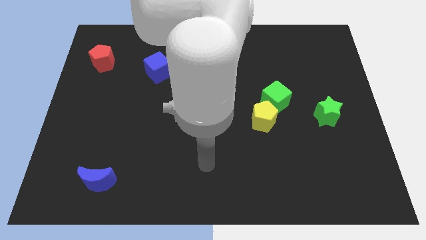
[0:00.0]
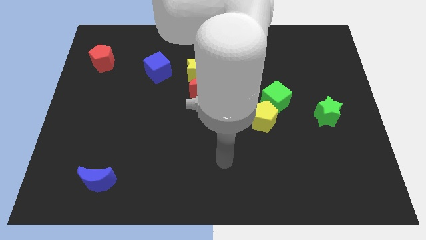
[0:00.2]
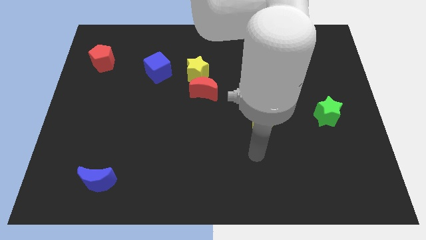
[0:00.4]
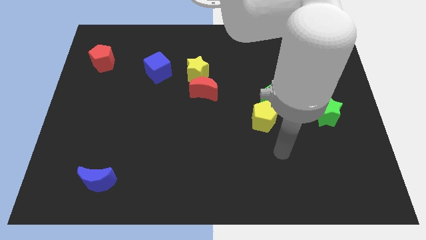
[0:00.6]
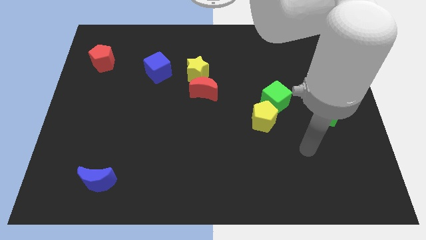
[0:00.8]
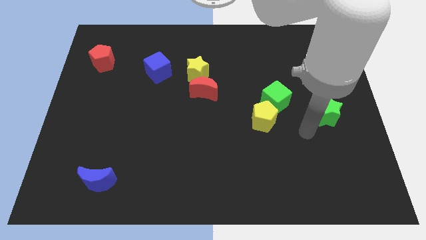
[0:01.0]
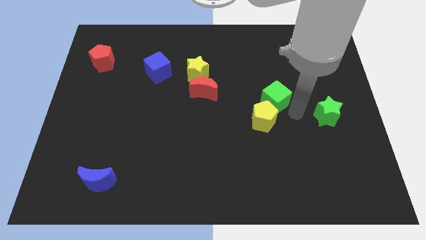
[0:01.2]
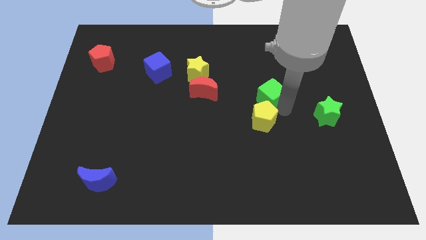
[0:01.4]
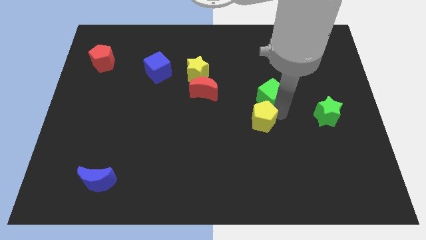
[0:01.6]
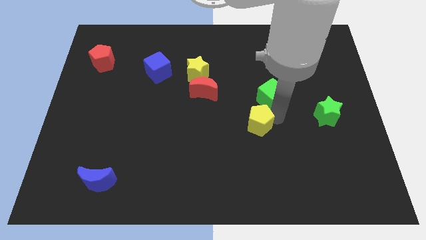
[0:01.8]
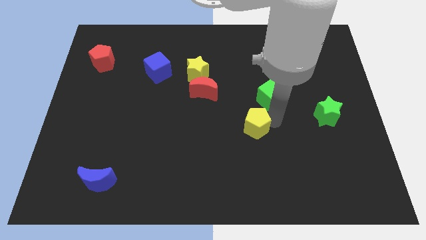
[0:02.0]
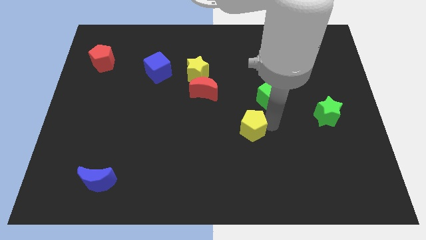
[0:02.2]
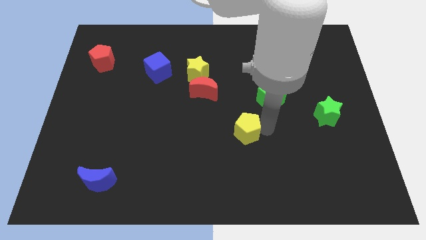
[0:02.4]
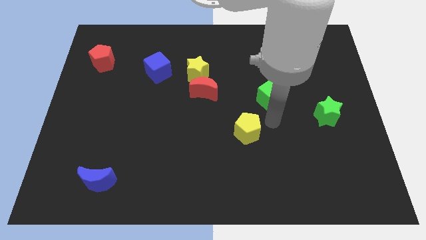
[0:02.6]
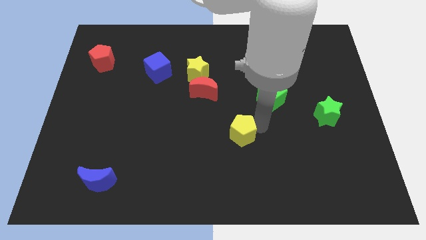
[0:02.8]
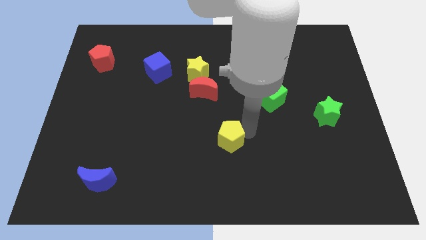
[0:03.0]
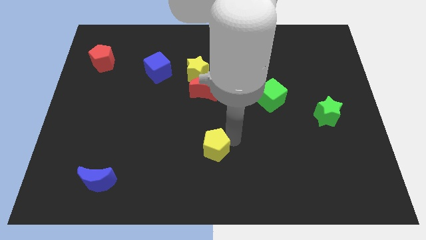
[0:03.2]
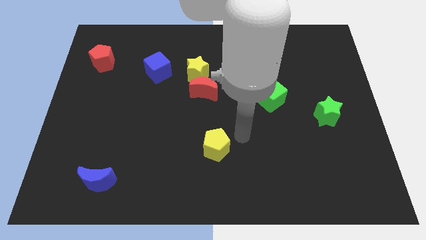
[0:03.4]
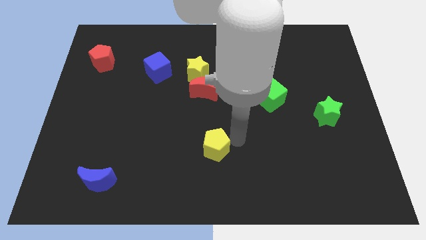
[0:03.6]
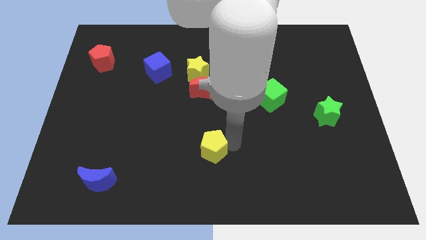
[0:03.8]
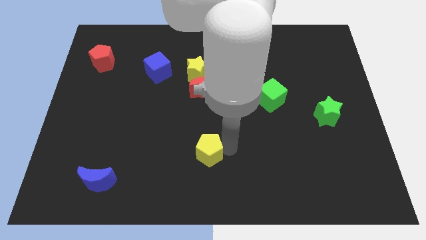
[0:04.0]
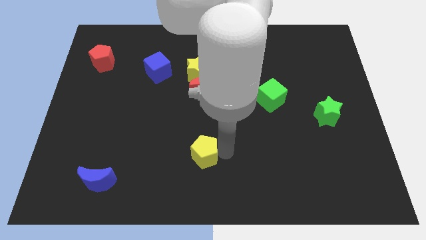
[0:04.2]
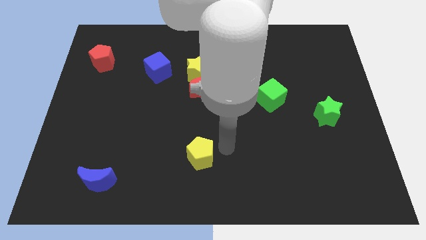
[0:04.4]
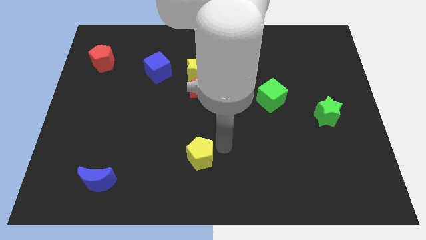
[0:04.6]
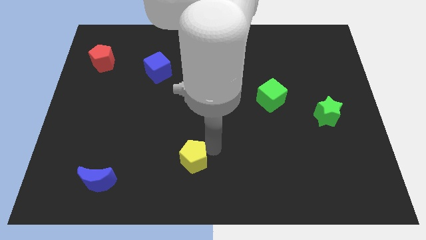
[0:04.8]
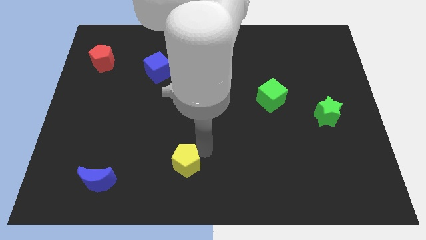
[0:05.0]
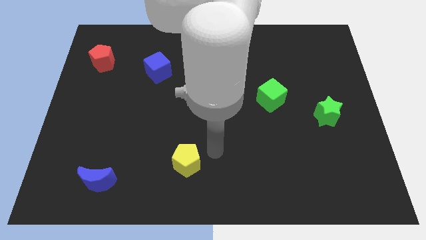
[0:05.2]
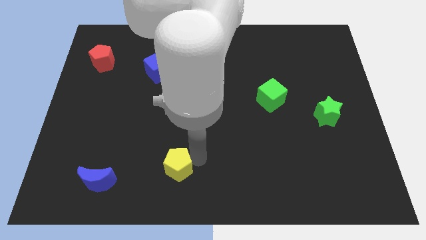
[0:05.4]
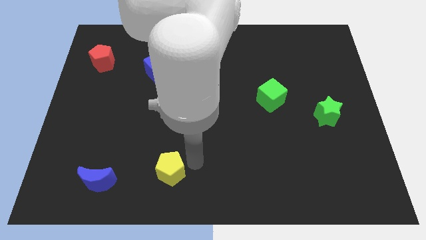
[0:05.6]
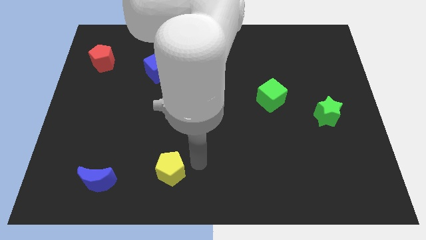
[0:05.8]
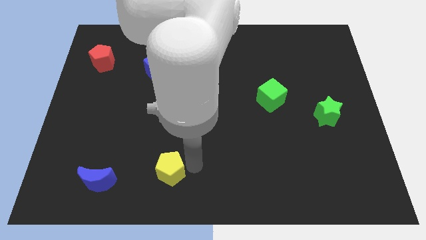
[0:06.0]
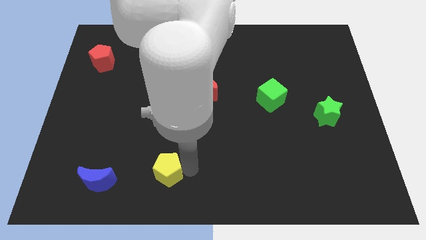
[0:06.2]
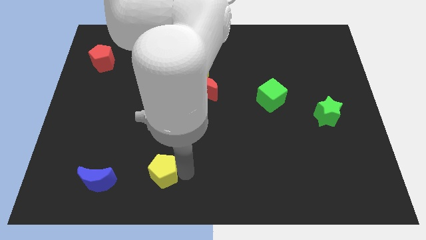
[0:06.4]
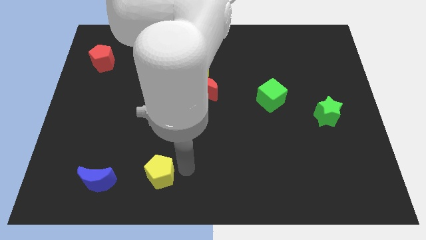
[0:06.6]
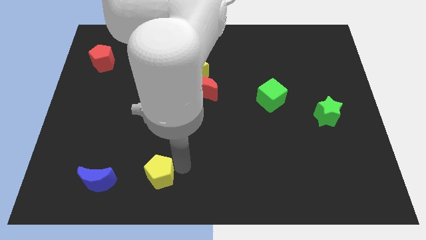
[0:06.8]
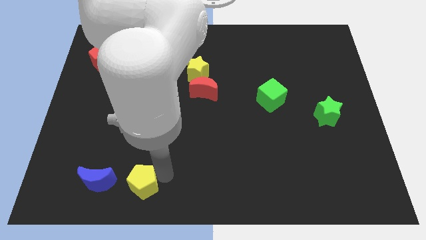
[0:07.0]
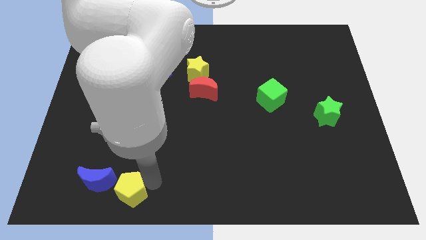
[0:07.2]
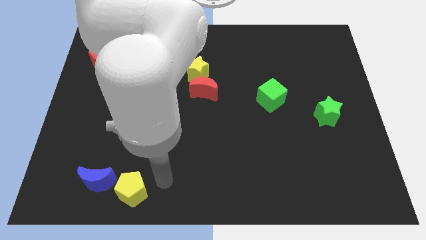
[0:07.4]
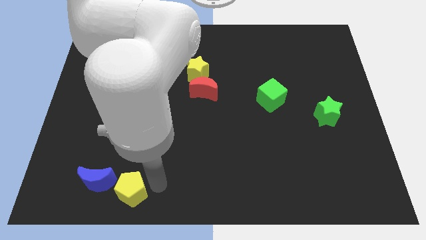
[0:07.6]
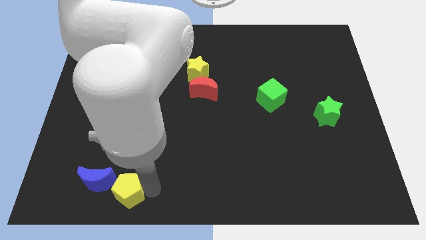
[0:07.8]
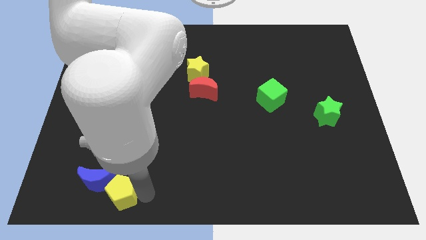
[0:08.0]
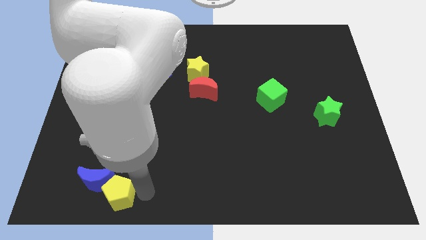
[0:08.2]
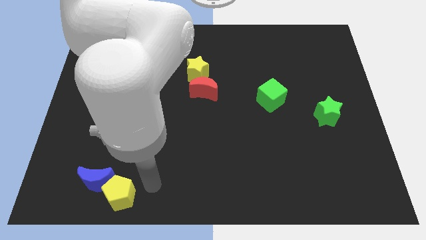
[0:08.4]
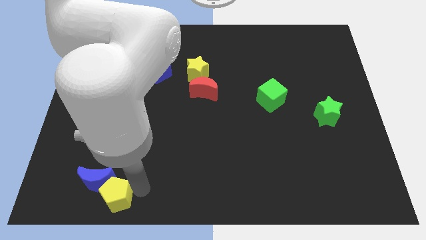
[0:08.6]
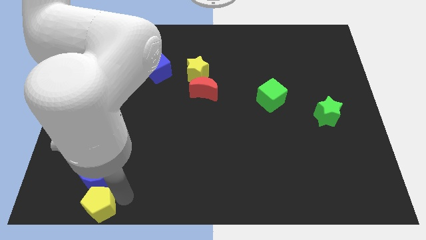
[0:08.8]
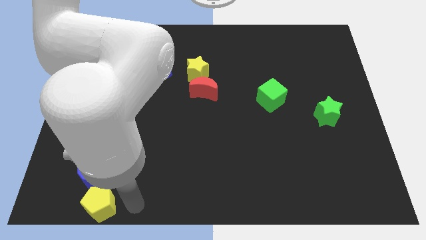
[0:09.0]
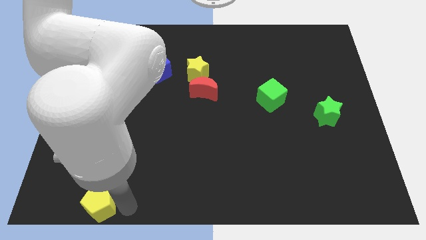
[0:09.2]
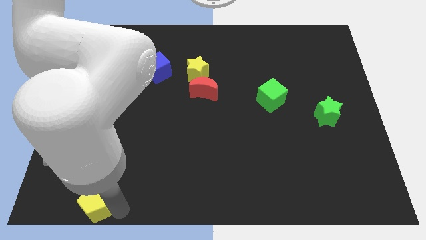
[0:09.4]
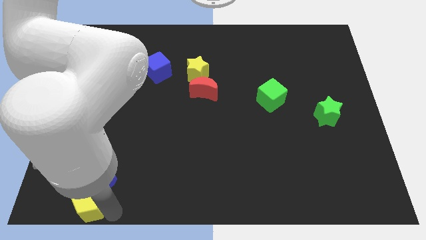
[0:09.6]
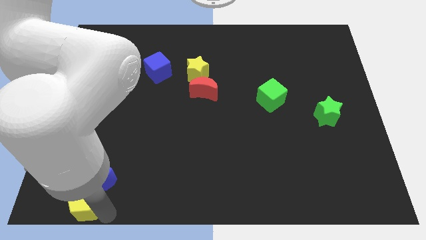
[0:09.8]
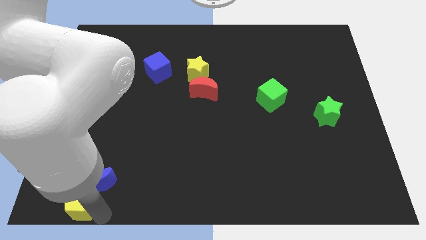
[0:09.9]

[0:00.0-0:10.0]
slide the yellow pentagon to the bottom left of the board
